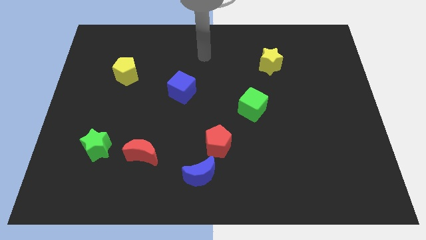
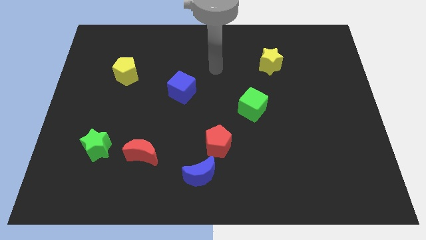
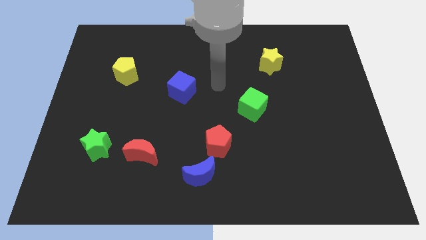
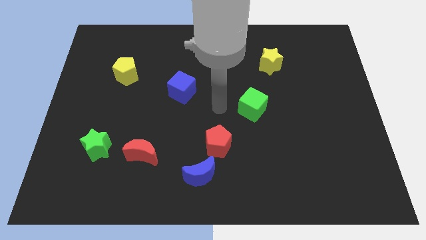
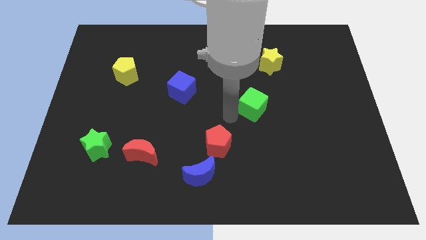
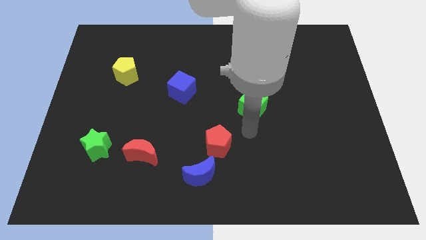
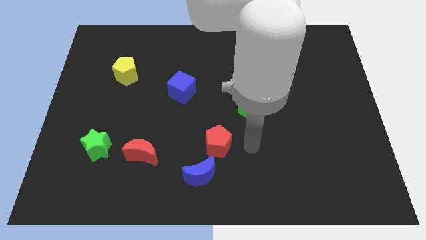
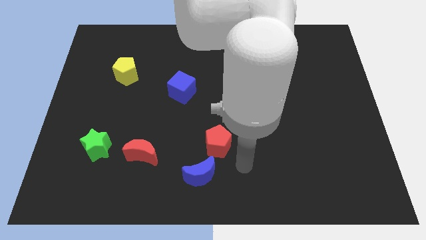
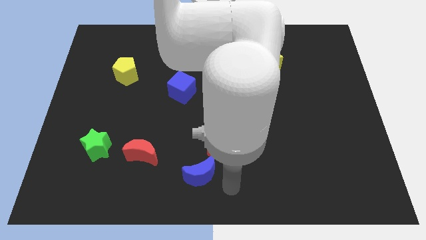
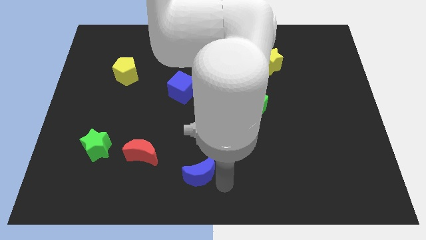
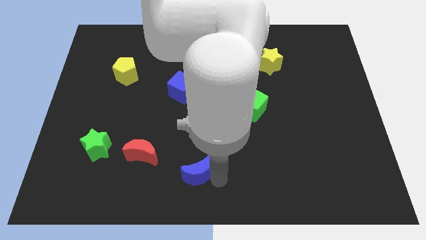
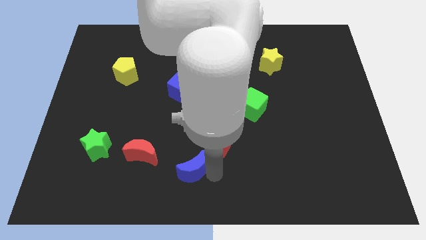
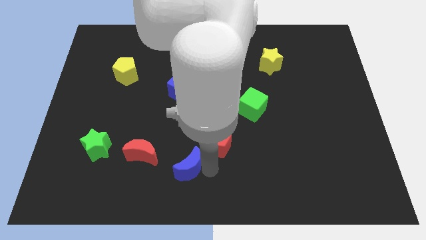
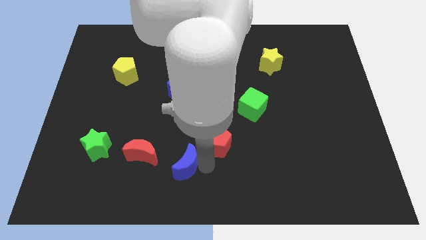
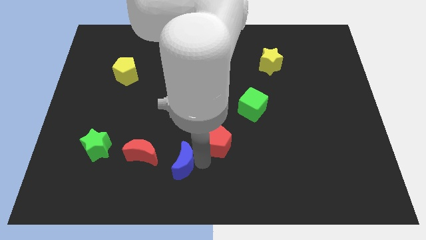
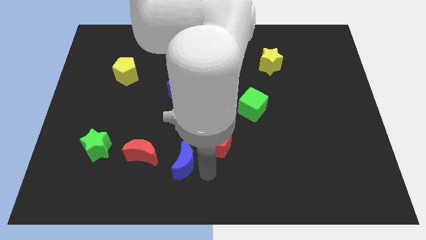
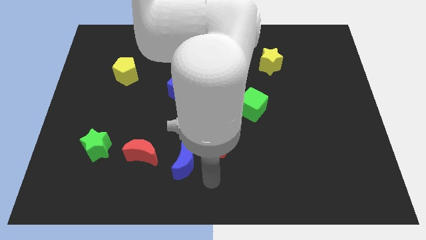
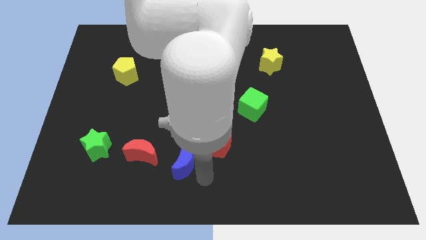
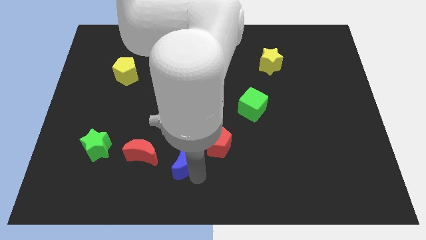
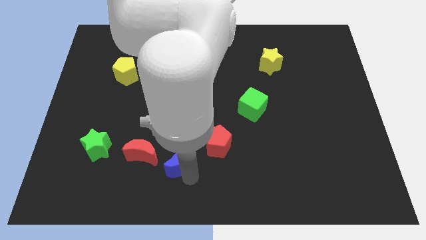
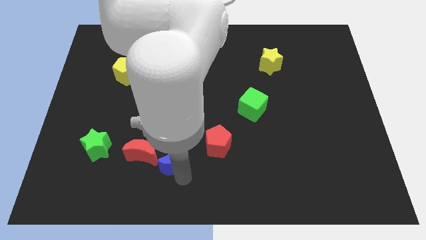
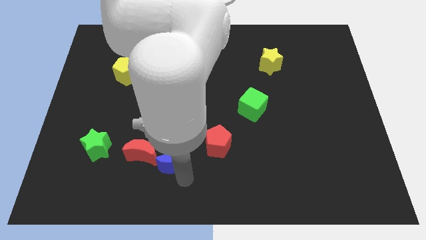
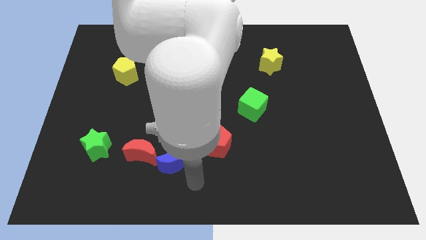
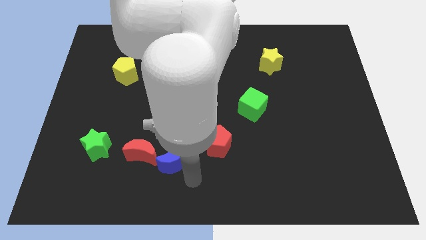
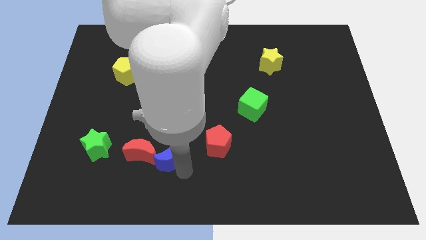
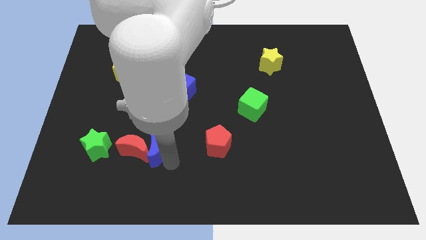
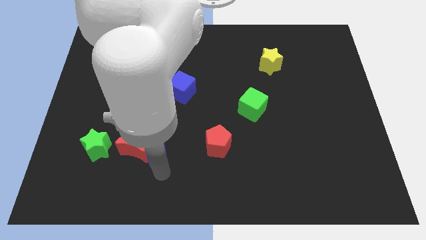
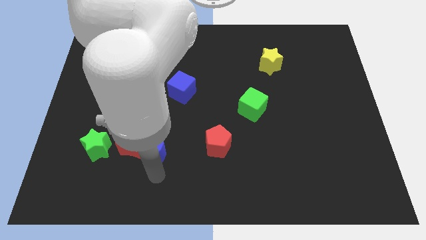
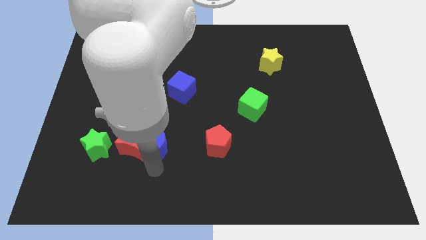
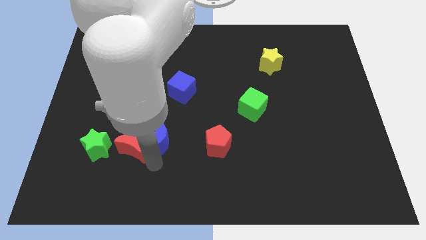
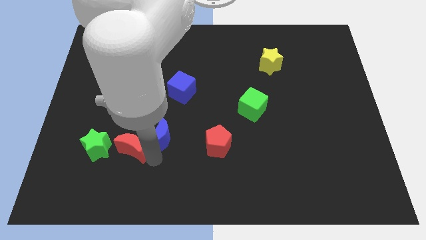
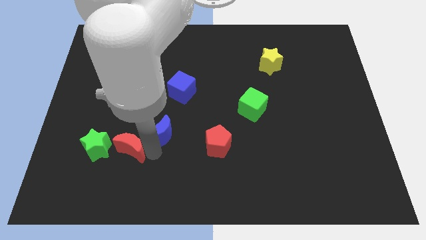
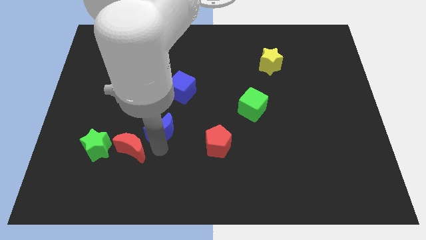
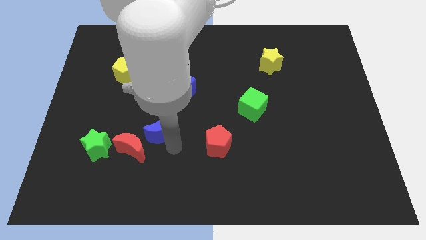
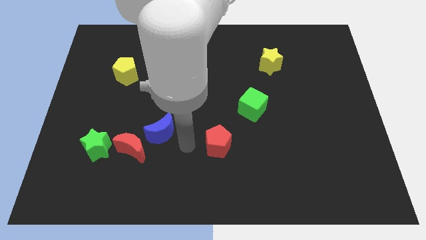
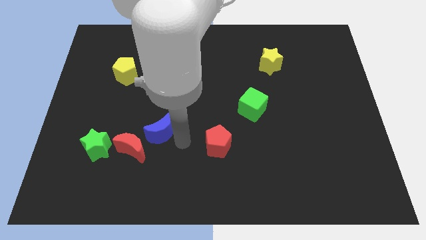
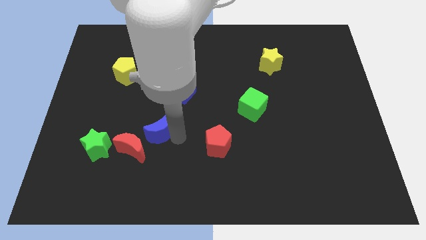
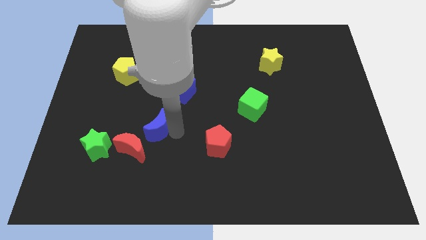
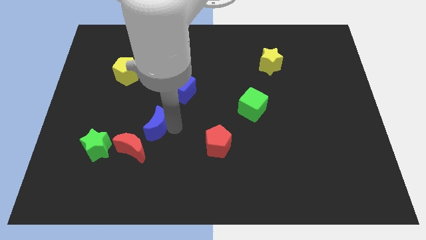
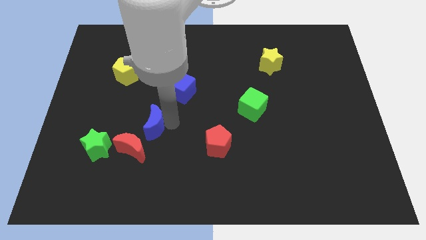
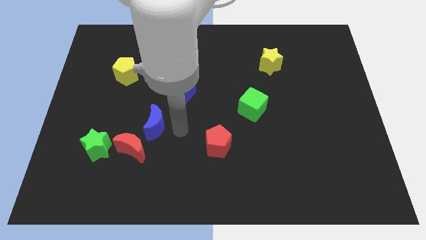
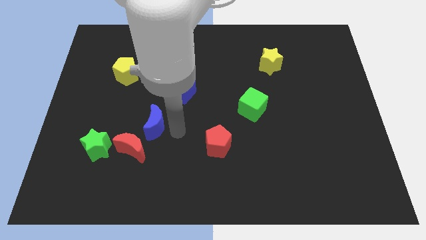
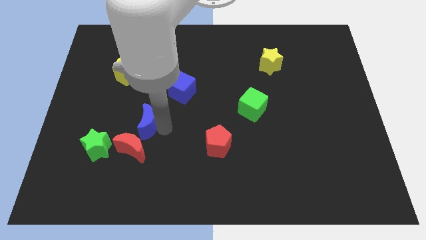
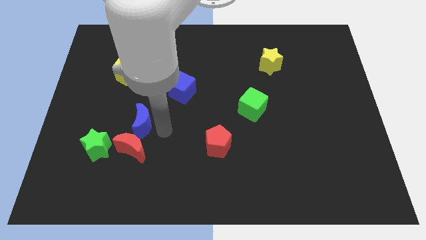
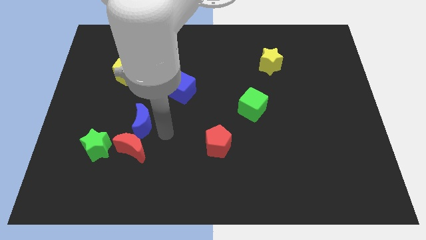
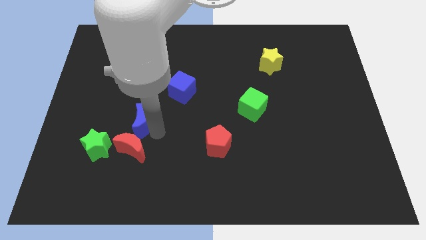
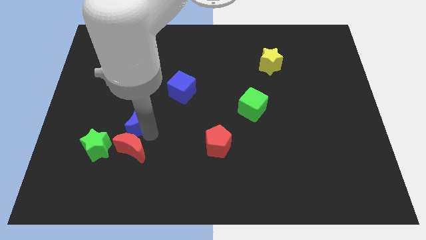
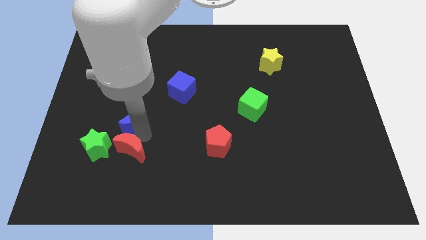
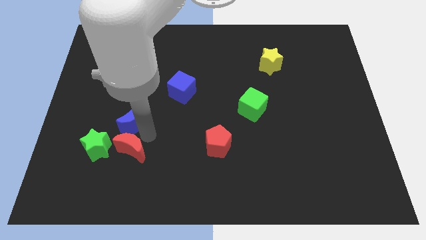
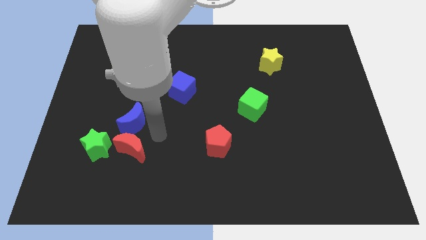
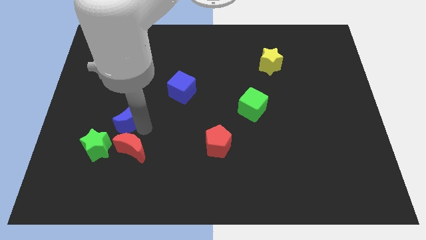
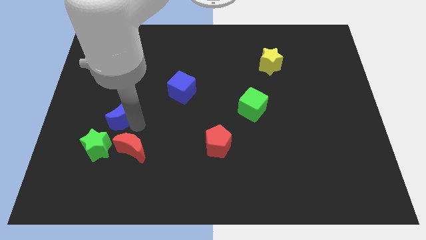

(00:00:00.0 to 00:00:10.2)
put the blue moon to the top side of the green star

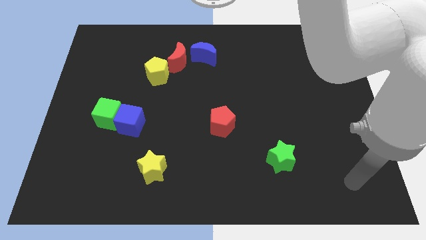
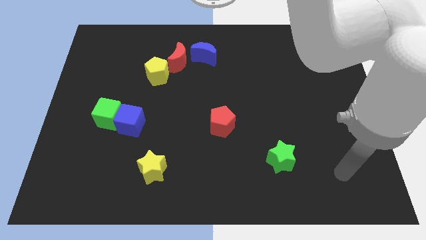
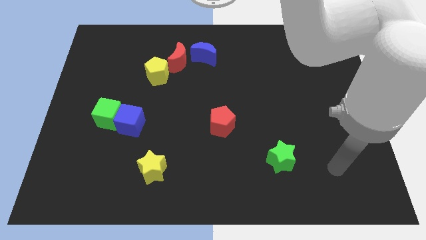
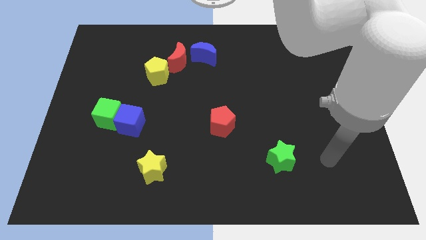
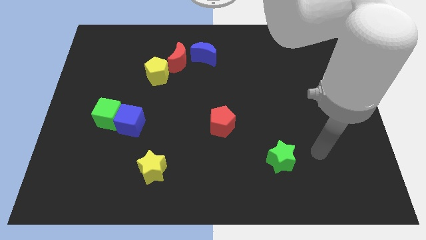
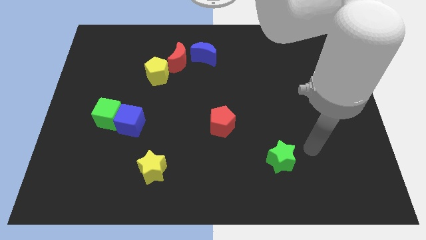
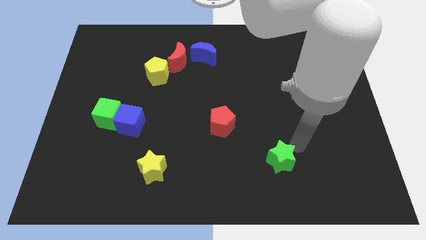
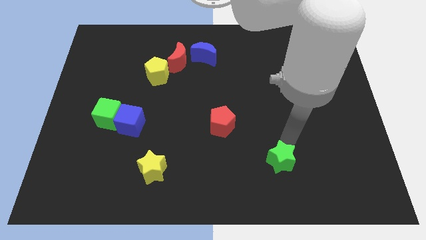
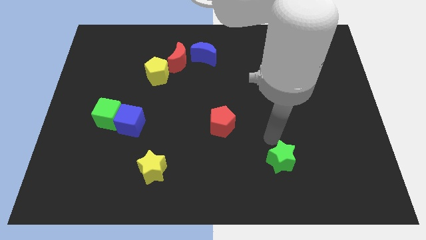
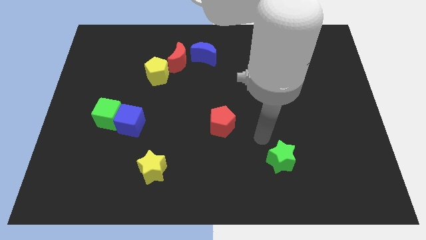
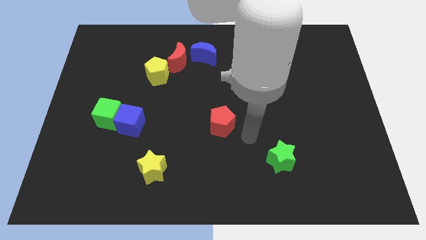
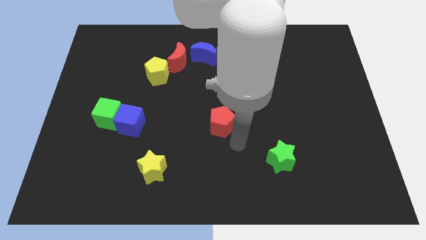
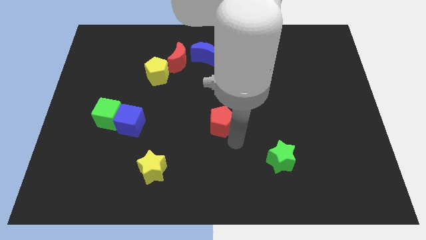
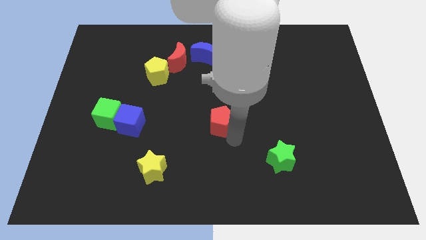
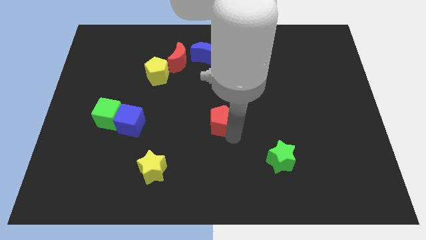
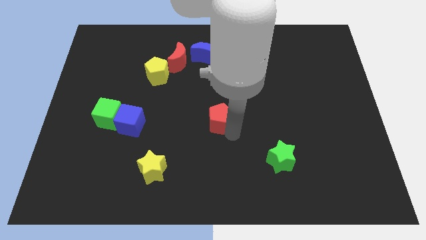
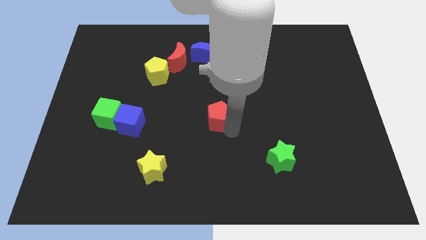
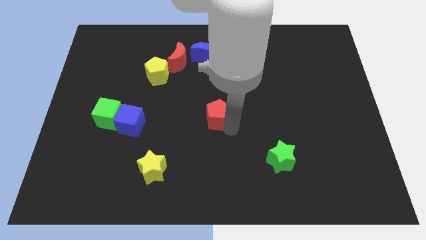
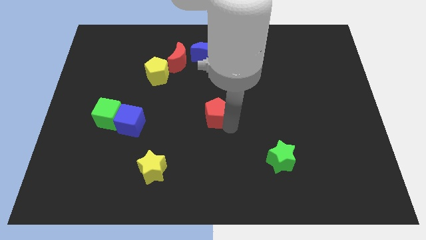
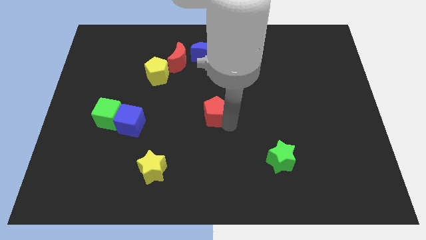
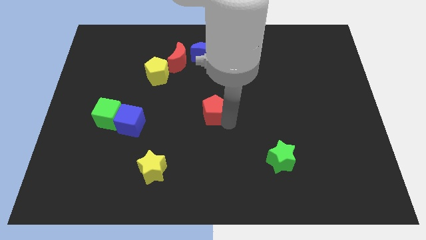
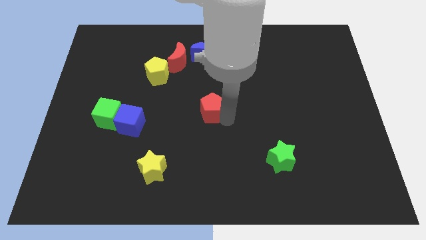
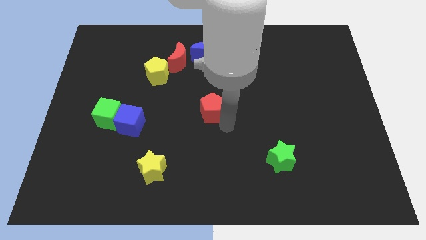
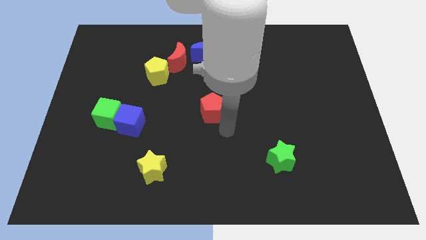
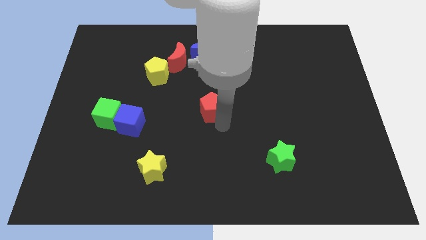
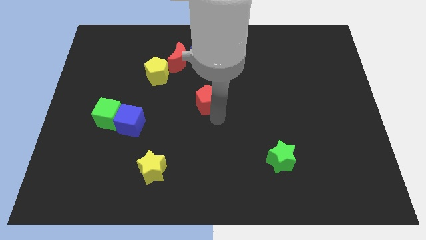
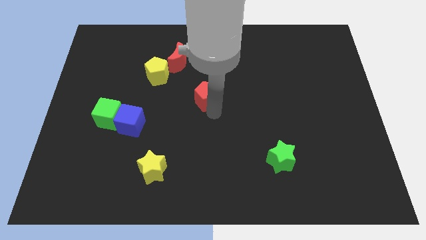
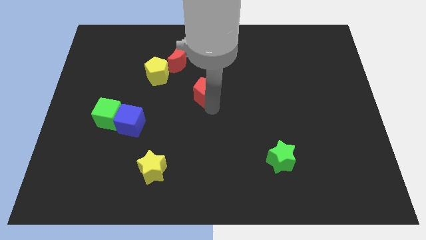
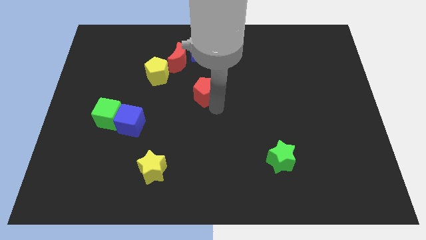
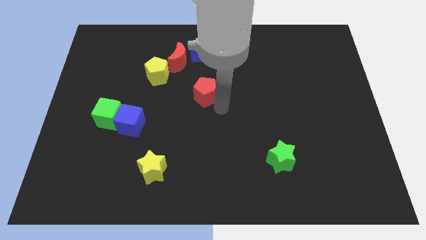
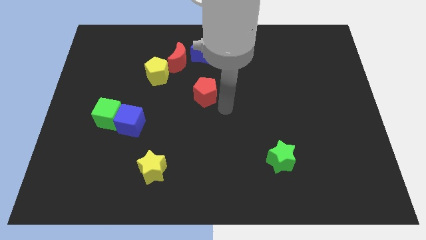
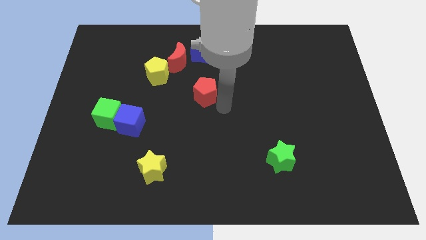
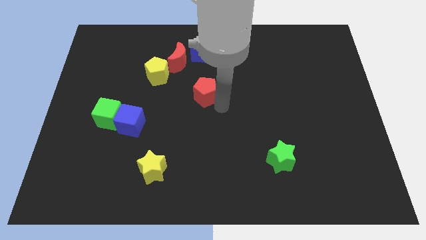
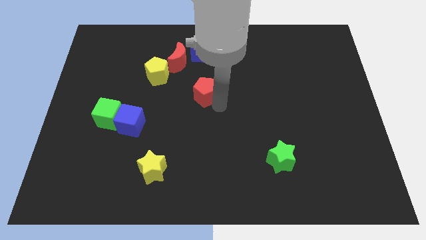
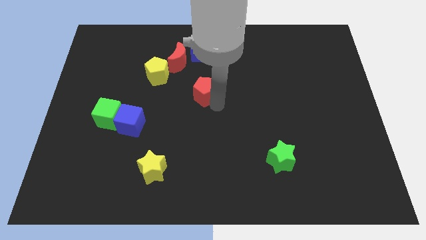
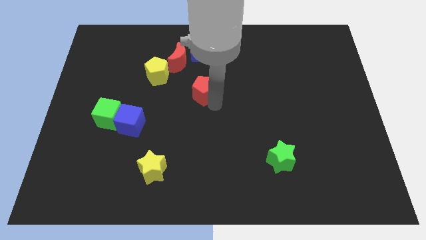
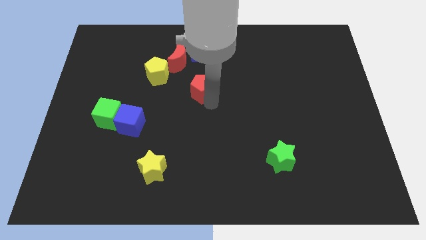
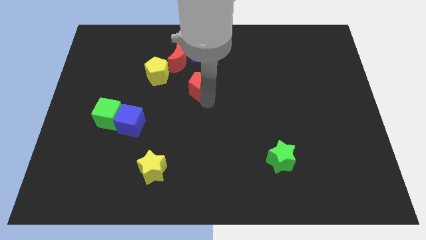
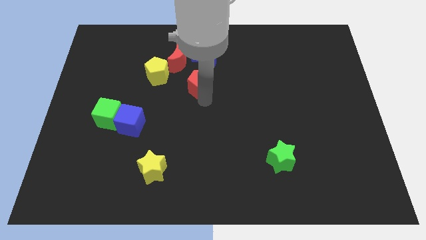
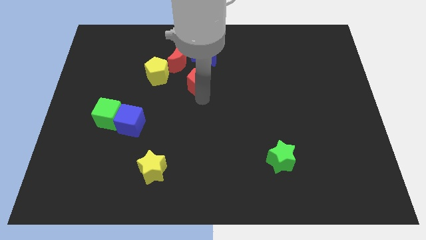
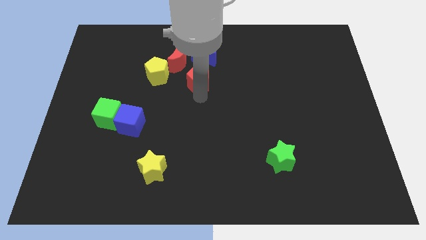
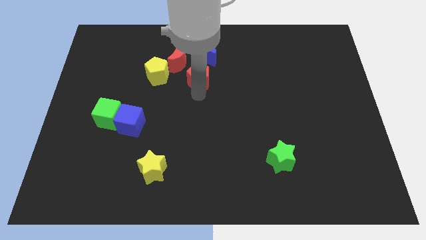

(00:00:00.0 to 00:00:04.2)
put the red pentagon to the bottom left of the blue moon
